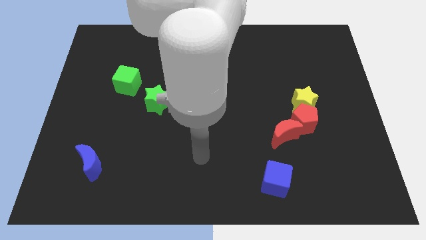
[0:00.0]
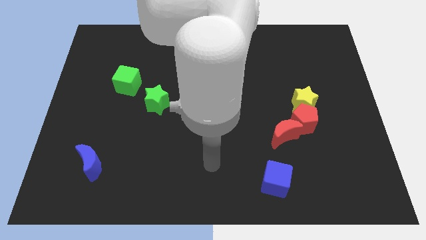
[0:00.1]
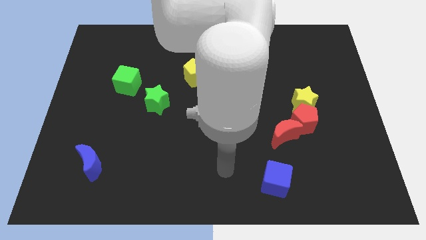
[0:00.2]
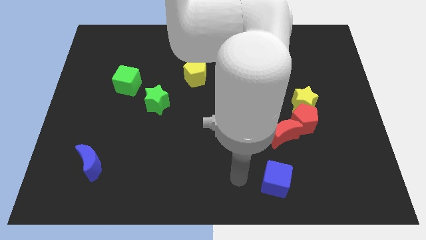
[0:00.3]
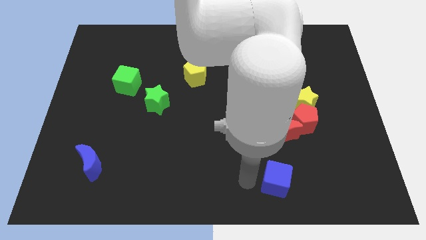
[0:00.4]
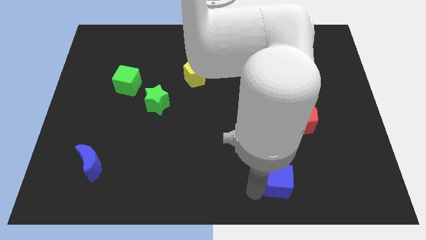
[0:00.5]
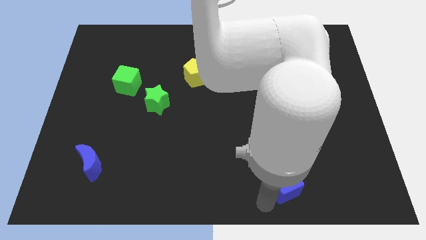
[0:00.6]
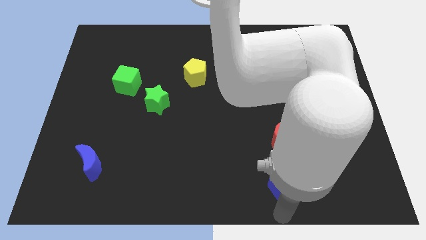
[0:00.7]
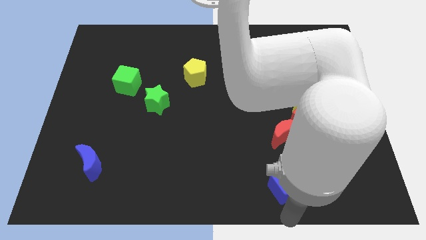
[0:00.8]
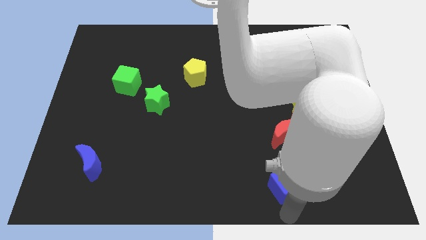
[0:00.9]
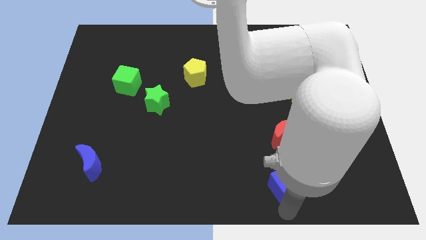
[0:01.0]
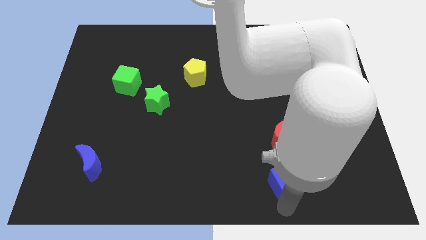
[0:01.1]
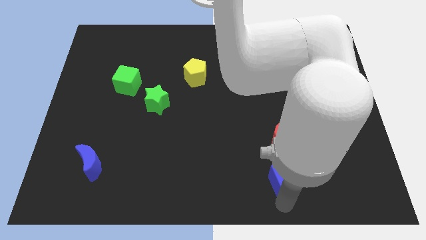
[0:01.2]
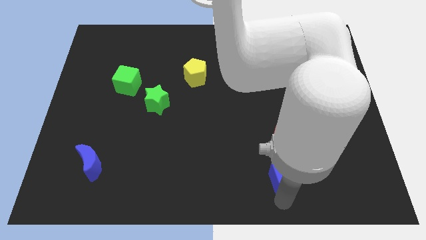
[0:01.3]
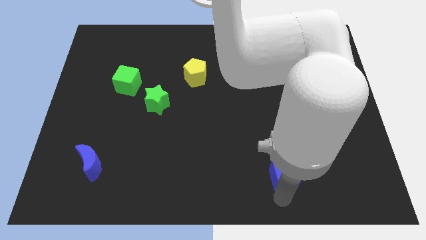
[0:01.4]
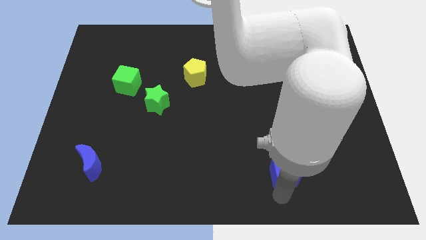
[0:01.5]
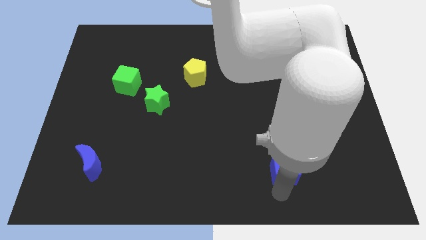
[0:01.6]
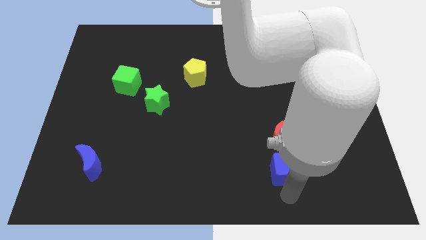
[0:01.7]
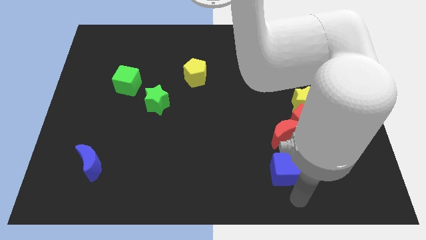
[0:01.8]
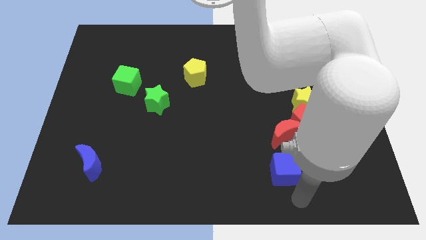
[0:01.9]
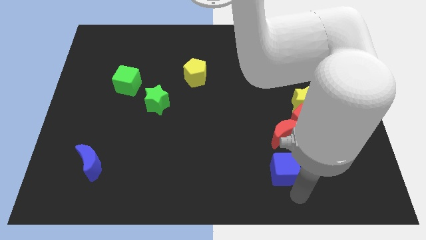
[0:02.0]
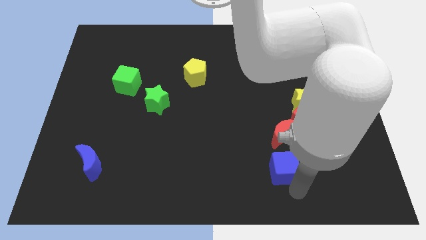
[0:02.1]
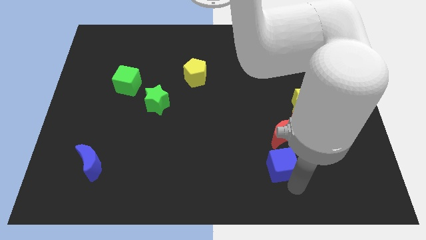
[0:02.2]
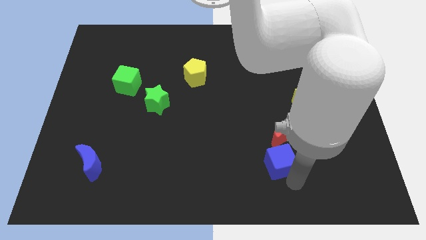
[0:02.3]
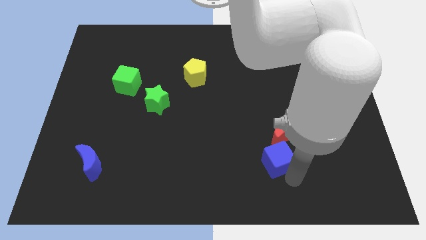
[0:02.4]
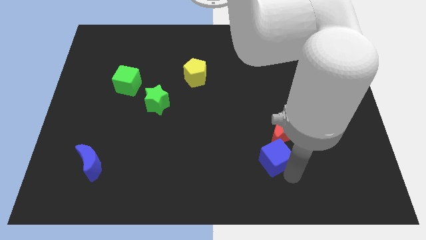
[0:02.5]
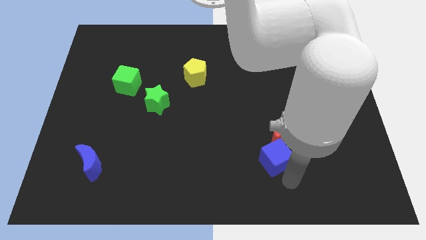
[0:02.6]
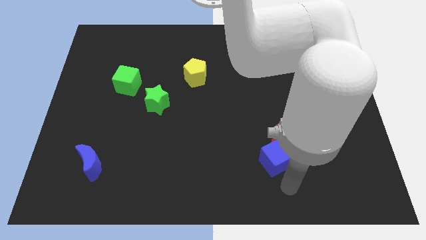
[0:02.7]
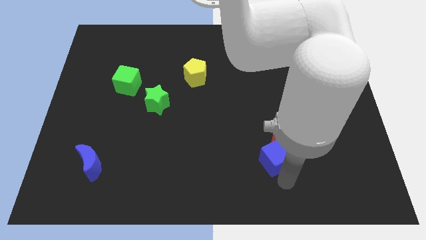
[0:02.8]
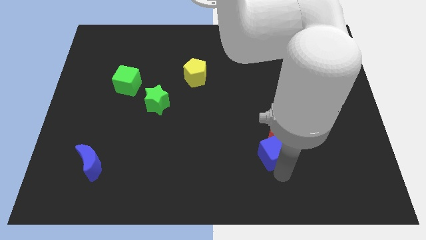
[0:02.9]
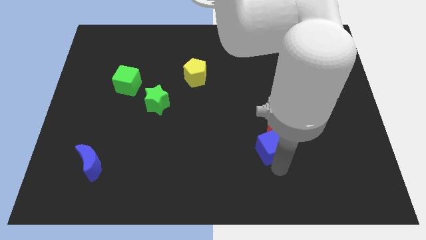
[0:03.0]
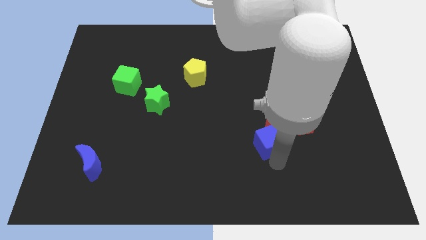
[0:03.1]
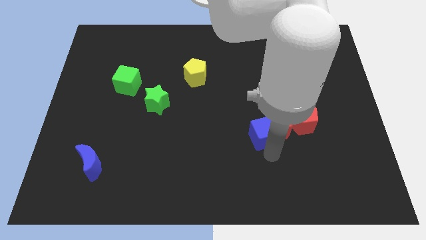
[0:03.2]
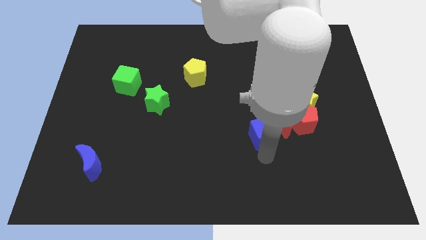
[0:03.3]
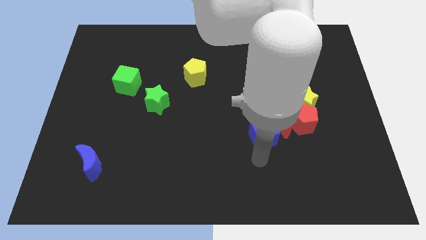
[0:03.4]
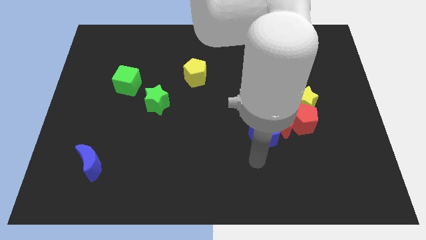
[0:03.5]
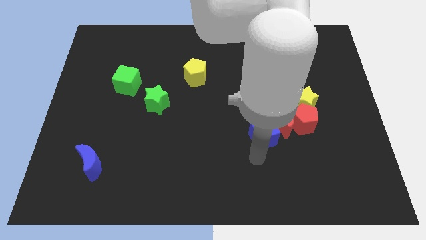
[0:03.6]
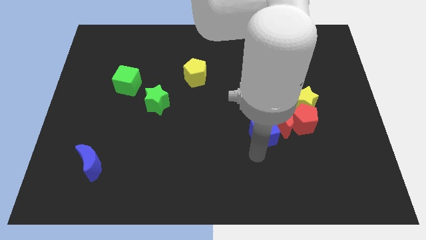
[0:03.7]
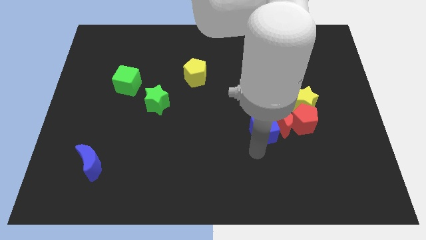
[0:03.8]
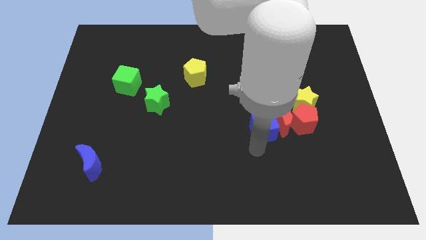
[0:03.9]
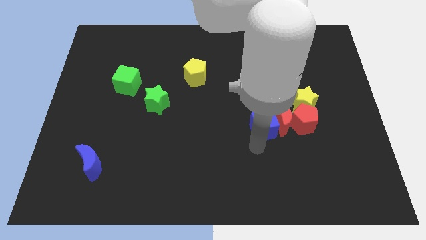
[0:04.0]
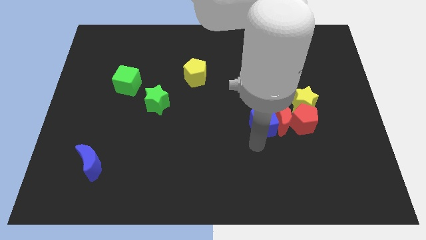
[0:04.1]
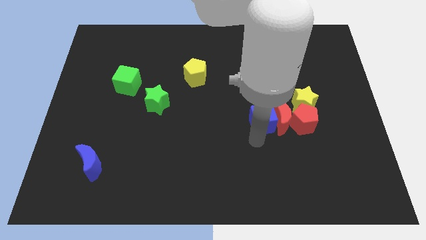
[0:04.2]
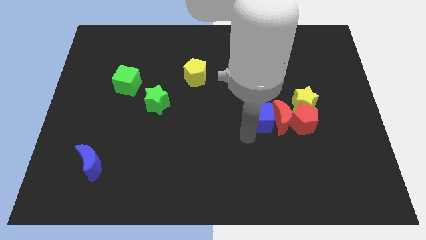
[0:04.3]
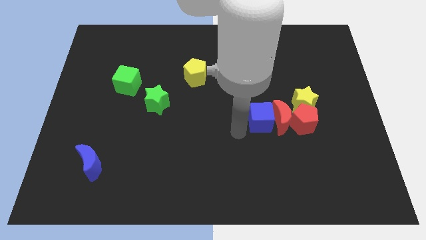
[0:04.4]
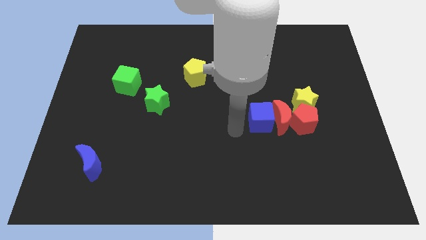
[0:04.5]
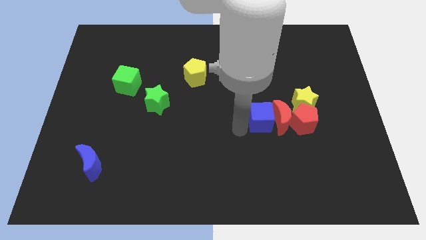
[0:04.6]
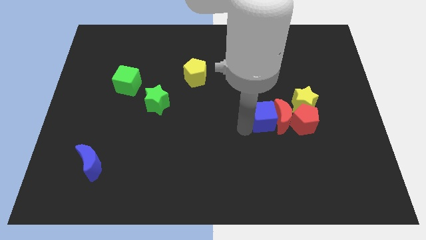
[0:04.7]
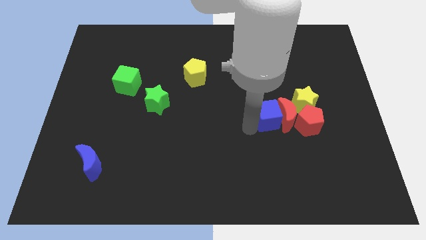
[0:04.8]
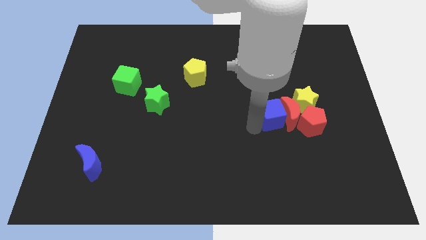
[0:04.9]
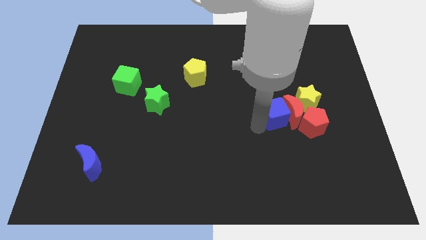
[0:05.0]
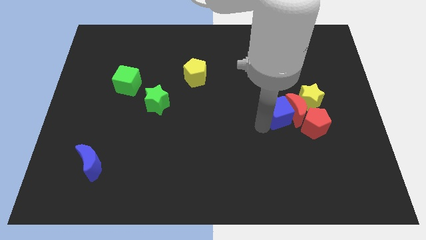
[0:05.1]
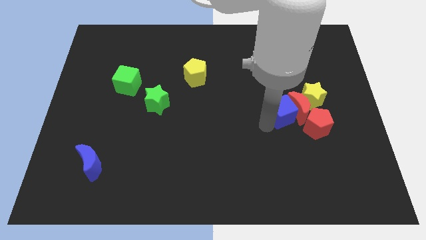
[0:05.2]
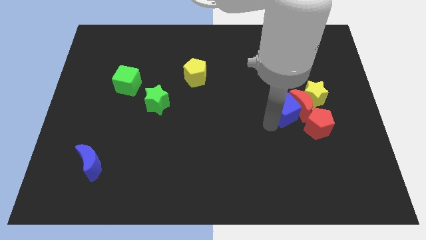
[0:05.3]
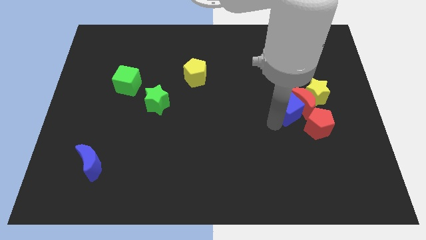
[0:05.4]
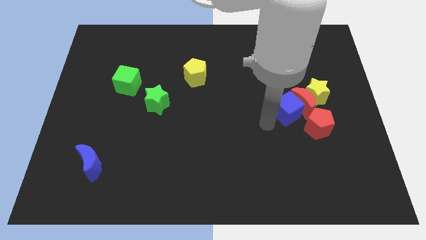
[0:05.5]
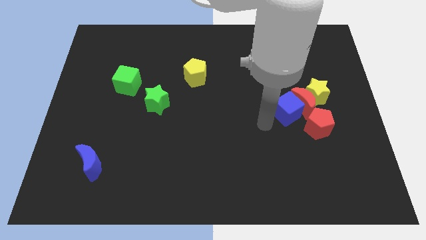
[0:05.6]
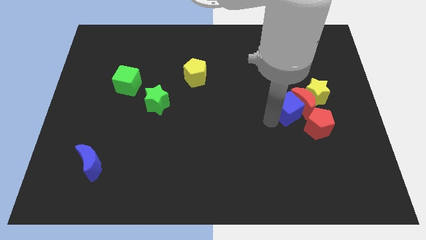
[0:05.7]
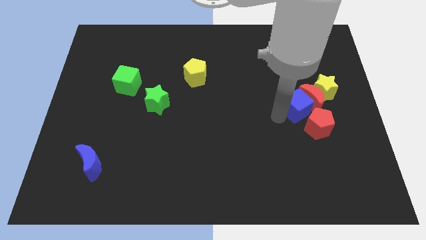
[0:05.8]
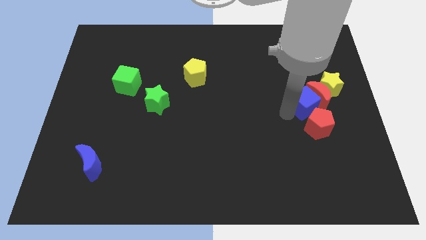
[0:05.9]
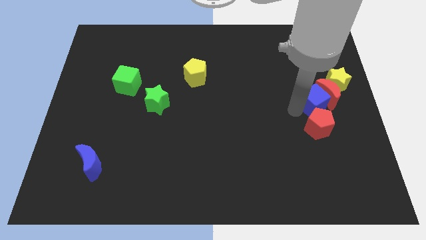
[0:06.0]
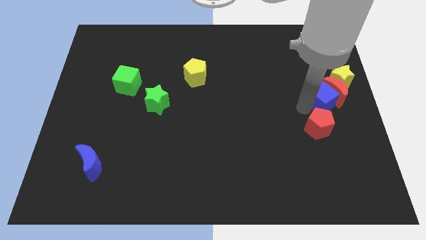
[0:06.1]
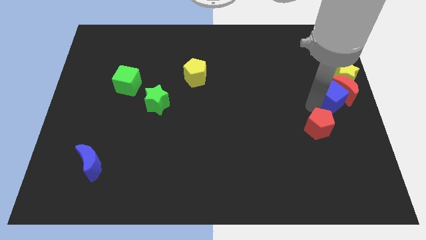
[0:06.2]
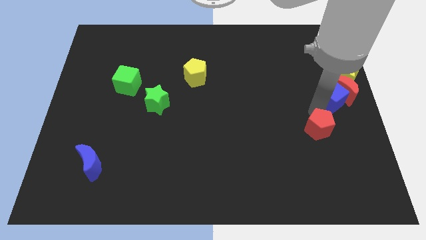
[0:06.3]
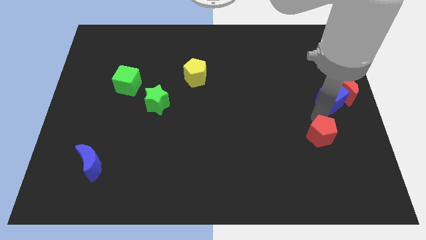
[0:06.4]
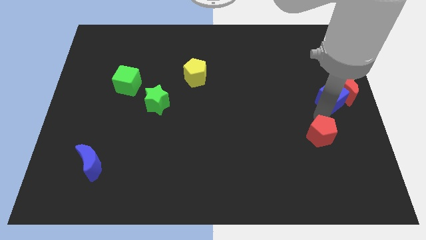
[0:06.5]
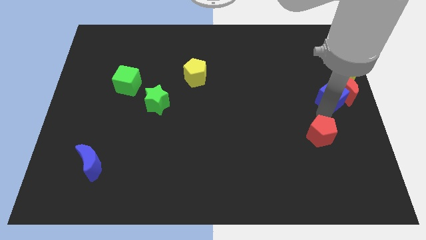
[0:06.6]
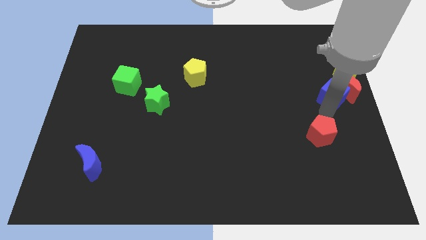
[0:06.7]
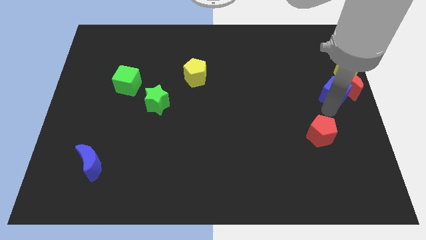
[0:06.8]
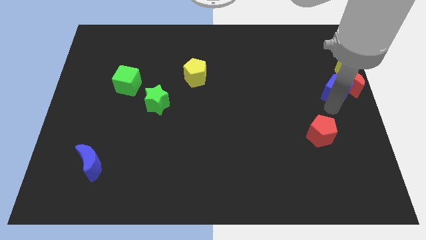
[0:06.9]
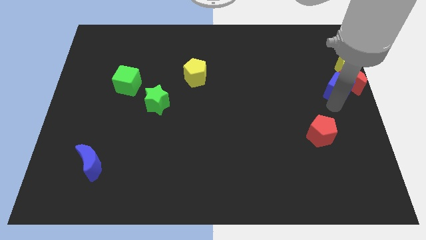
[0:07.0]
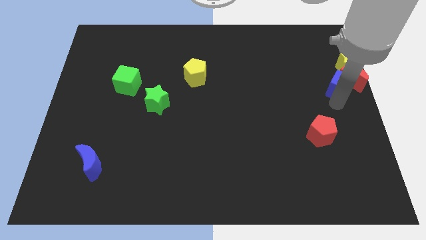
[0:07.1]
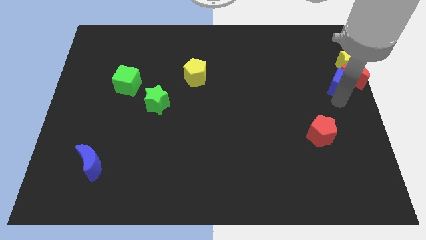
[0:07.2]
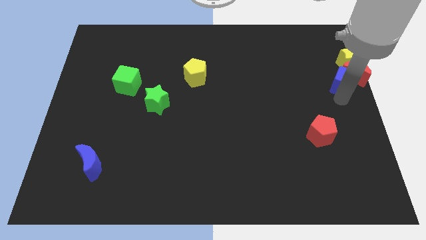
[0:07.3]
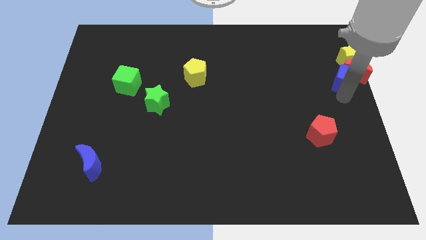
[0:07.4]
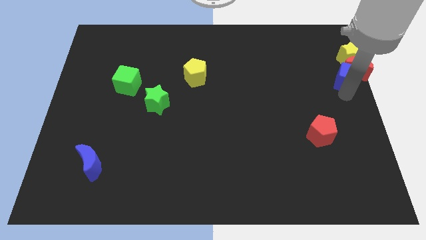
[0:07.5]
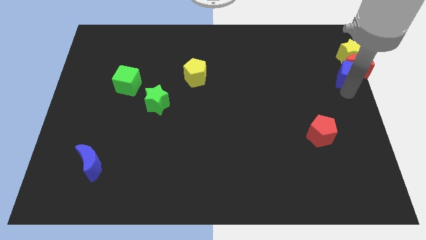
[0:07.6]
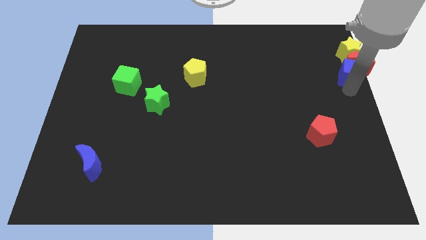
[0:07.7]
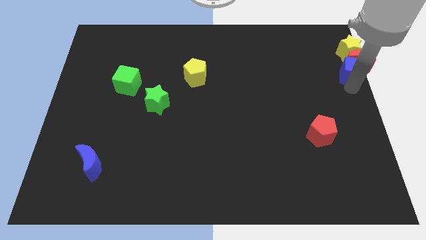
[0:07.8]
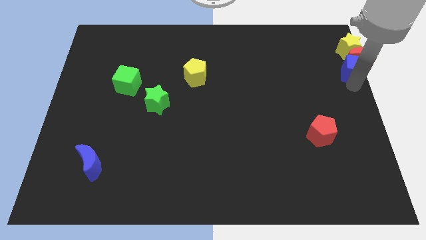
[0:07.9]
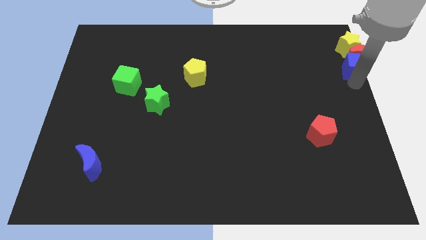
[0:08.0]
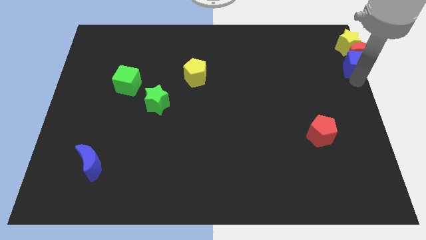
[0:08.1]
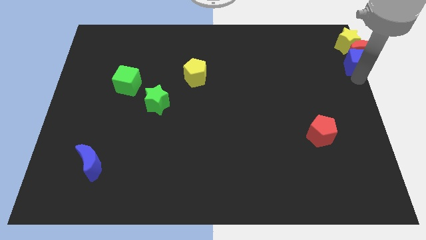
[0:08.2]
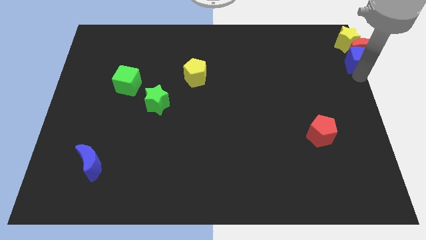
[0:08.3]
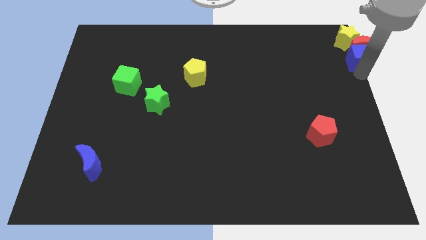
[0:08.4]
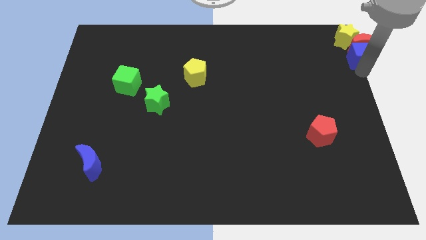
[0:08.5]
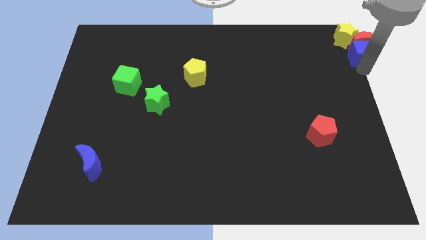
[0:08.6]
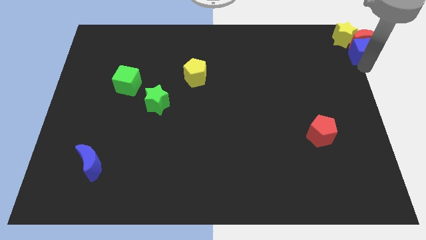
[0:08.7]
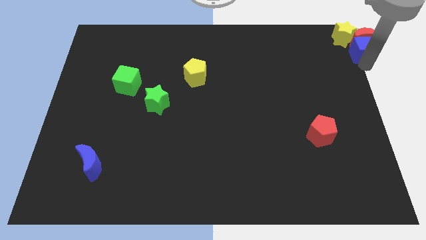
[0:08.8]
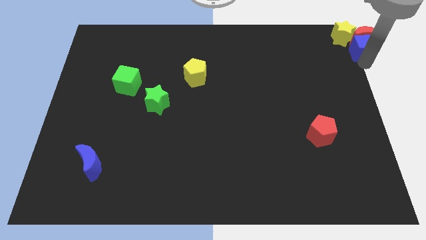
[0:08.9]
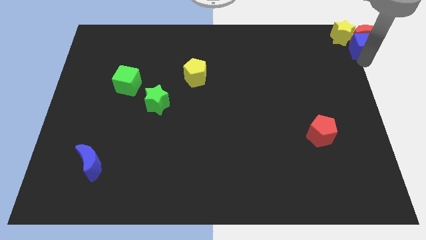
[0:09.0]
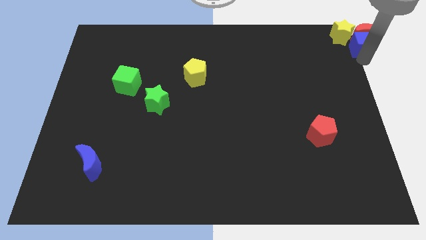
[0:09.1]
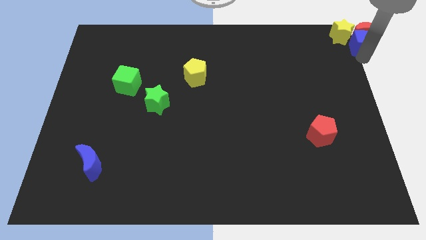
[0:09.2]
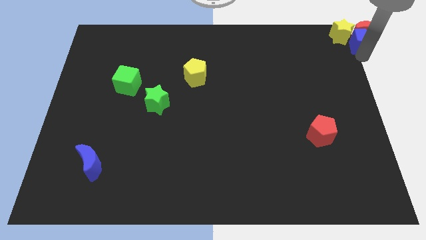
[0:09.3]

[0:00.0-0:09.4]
push the blue cube next to the yellow star
